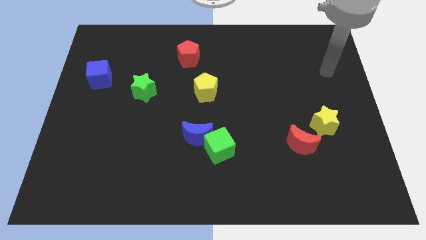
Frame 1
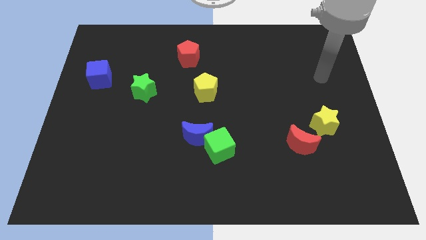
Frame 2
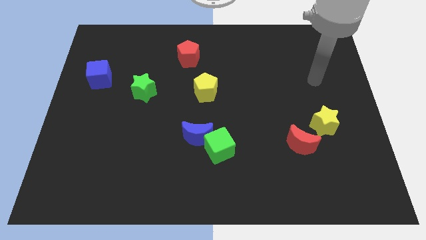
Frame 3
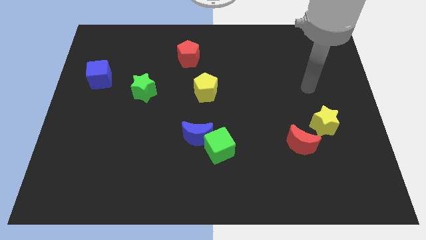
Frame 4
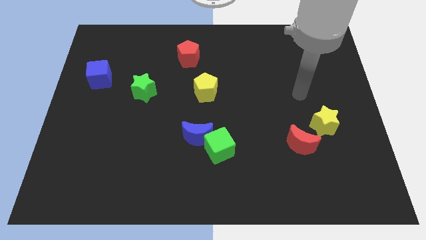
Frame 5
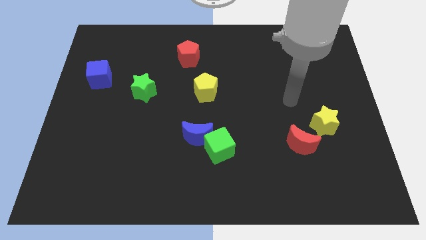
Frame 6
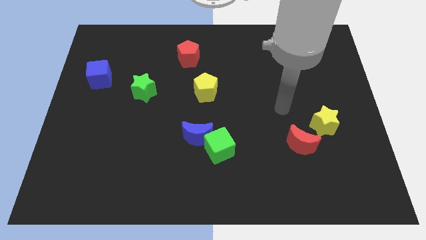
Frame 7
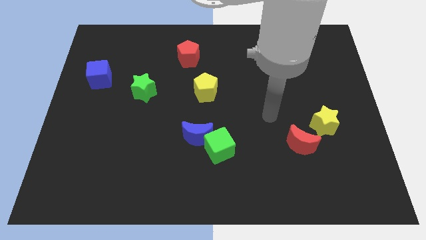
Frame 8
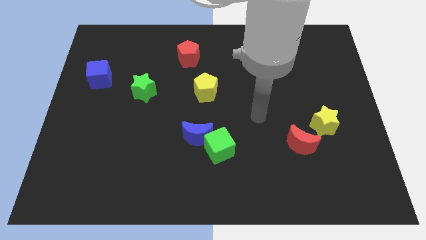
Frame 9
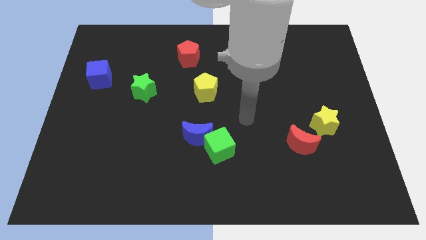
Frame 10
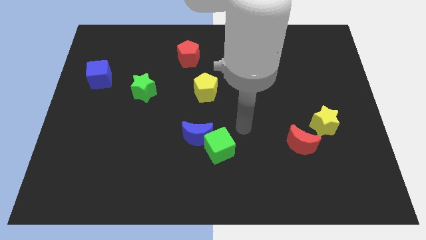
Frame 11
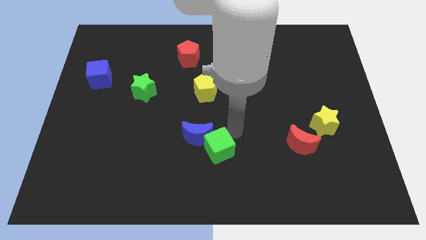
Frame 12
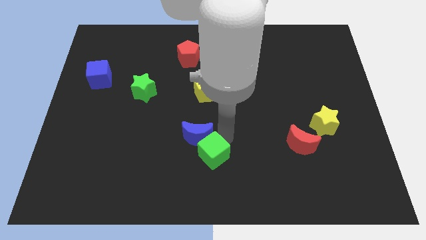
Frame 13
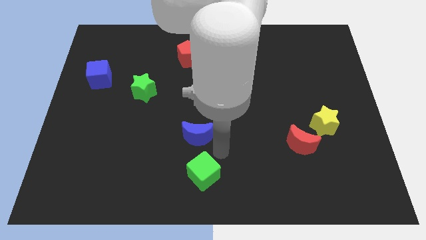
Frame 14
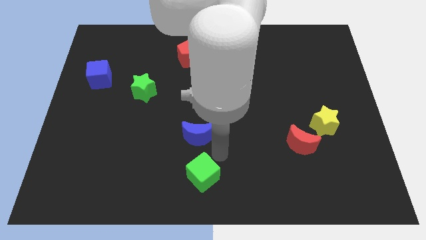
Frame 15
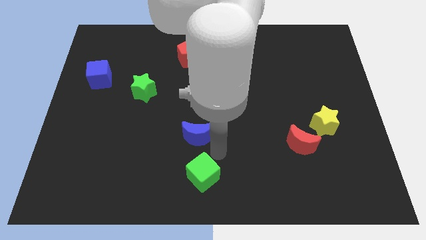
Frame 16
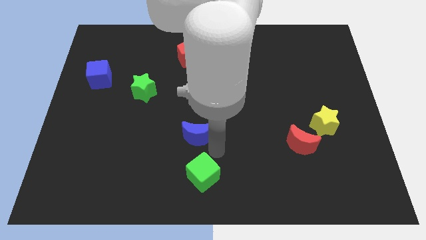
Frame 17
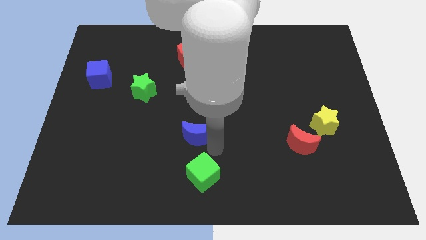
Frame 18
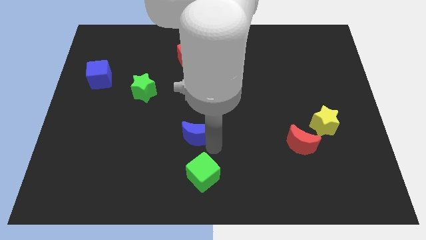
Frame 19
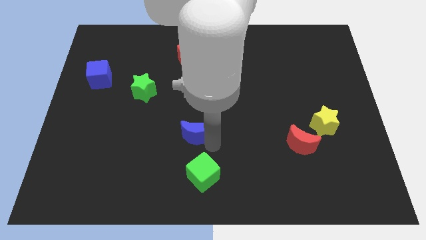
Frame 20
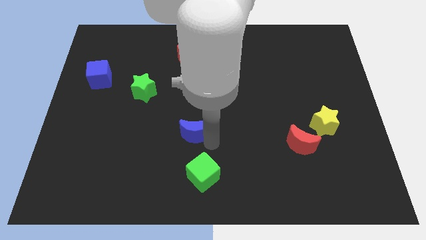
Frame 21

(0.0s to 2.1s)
move the blue moon away from the green cube

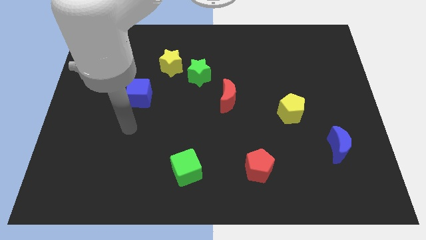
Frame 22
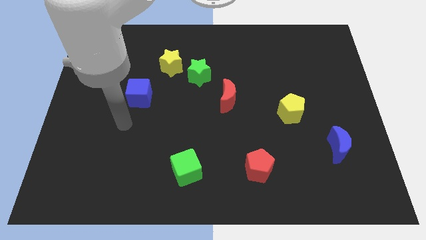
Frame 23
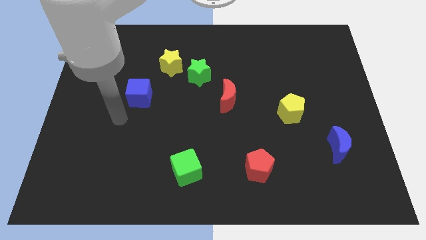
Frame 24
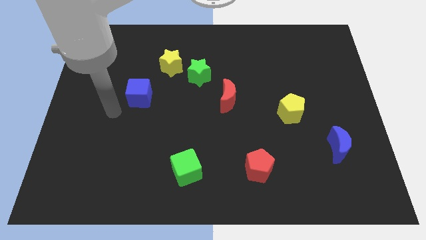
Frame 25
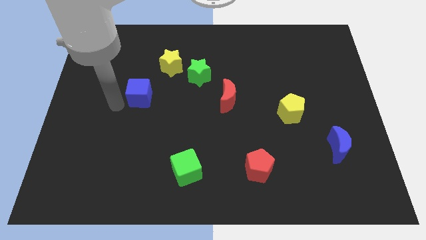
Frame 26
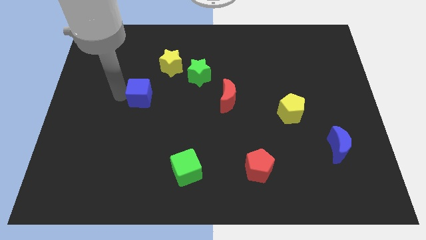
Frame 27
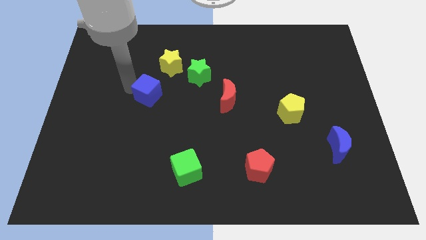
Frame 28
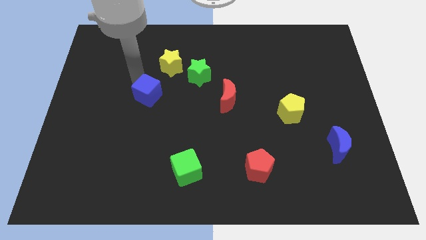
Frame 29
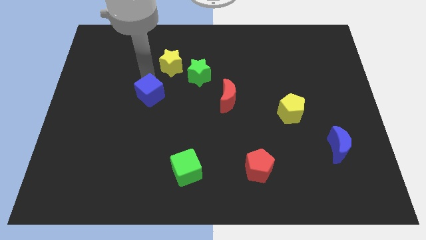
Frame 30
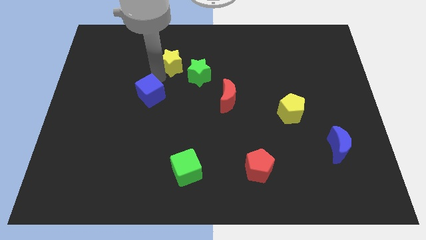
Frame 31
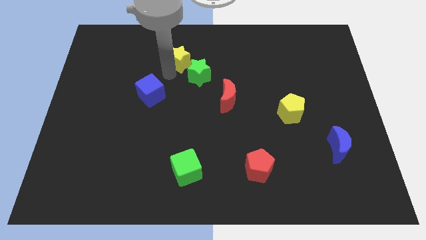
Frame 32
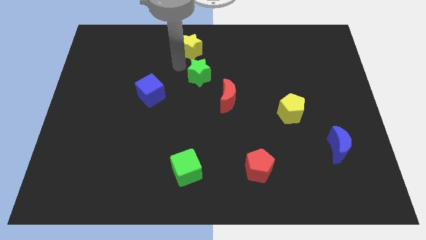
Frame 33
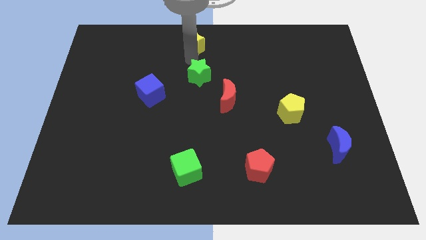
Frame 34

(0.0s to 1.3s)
separate the green star from the yellow star

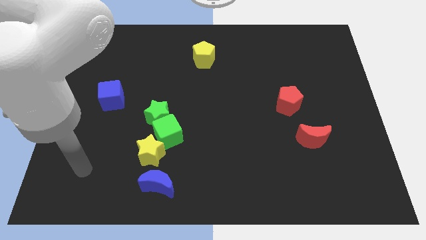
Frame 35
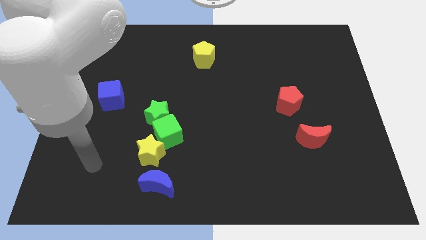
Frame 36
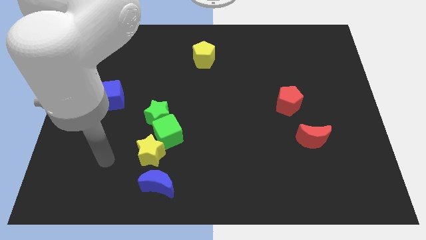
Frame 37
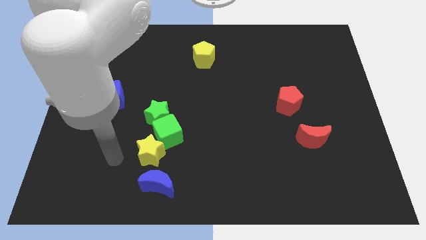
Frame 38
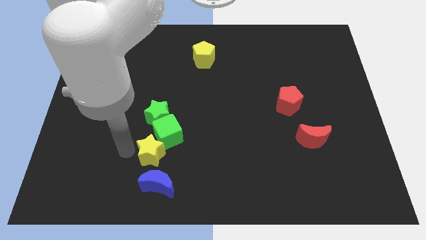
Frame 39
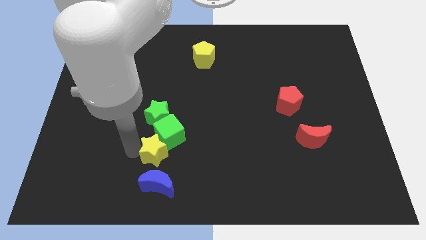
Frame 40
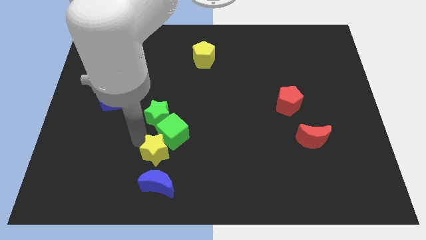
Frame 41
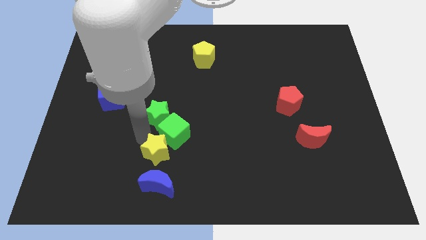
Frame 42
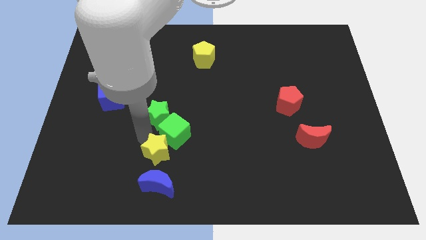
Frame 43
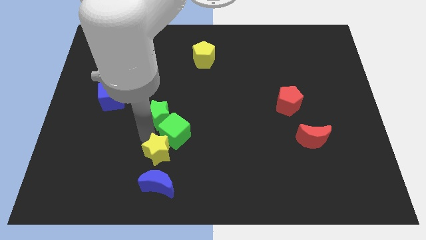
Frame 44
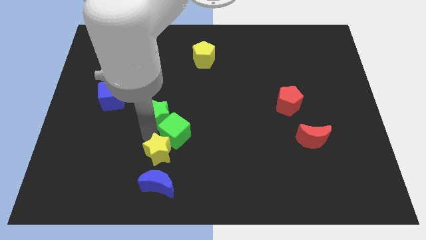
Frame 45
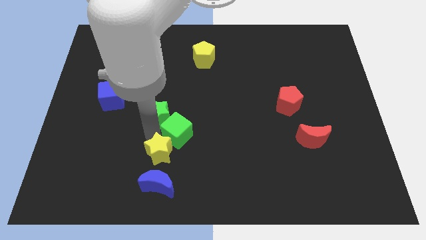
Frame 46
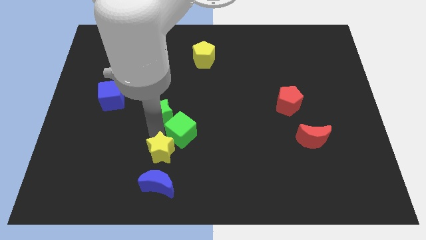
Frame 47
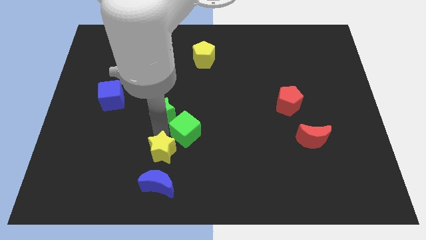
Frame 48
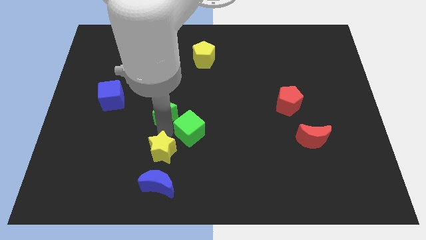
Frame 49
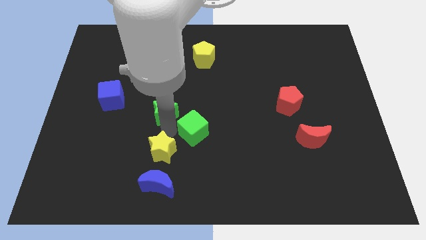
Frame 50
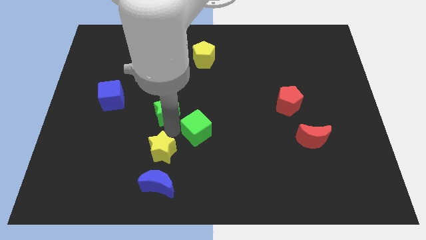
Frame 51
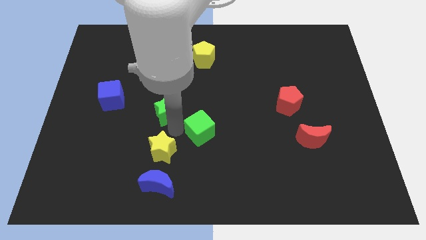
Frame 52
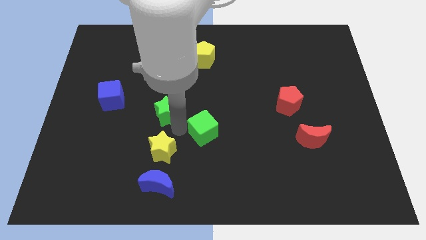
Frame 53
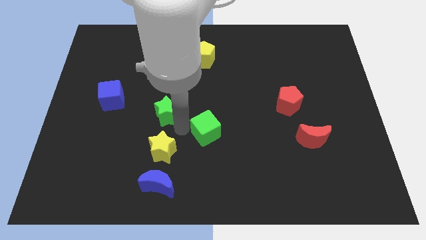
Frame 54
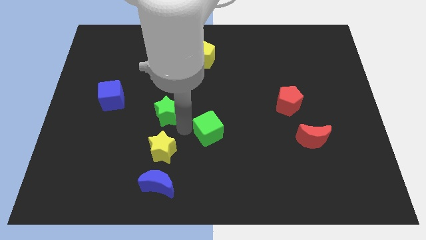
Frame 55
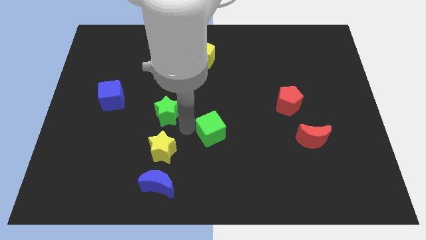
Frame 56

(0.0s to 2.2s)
pull the green cube apart from the green star and yellow star

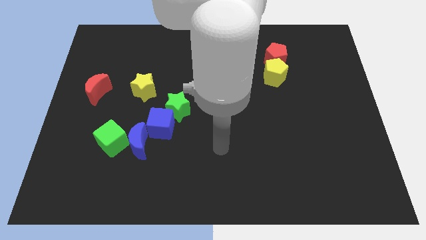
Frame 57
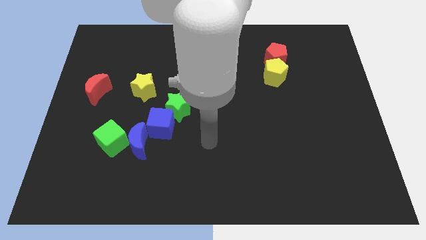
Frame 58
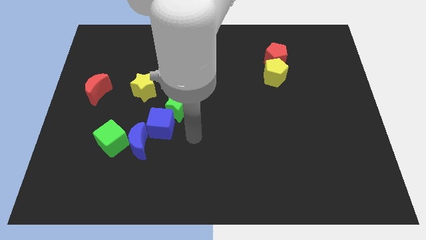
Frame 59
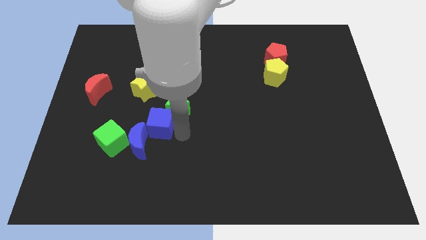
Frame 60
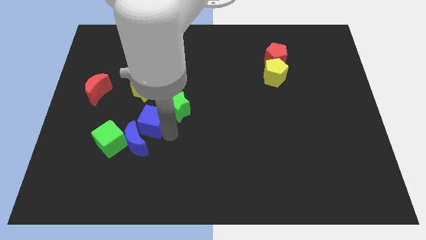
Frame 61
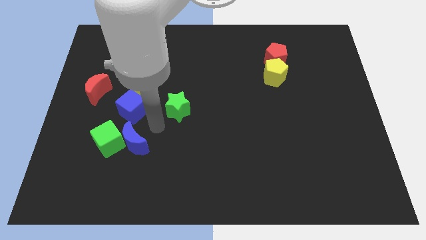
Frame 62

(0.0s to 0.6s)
move the green star away from the blue cube

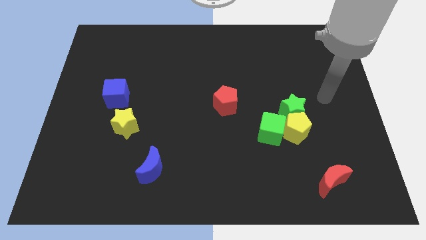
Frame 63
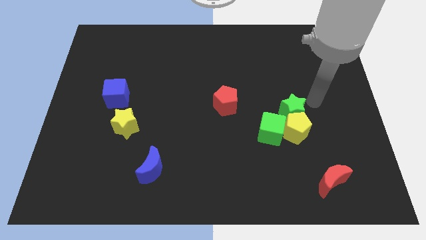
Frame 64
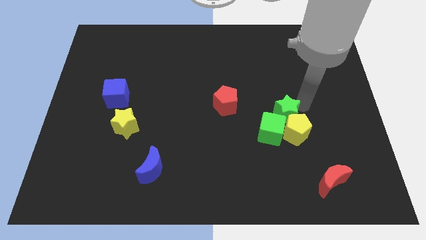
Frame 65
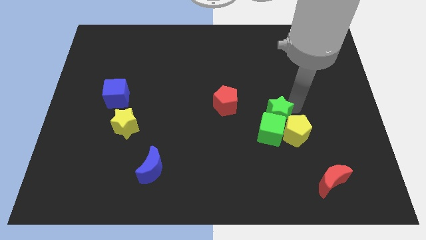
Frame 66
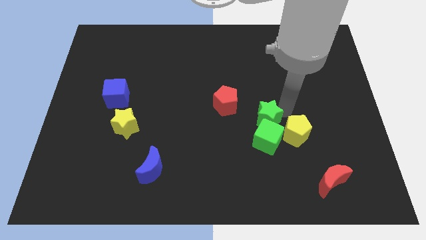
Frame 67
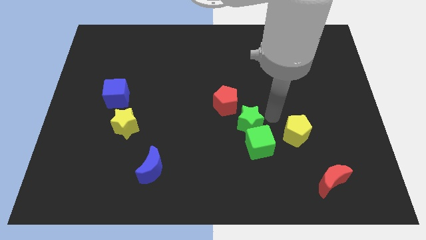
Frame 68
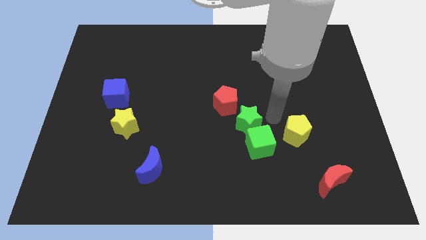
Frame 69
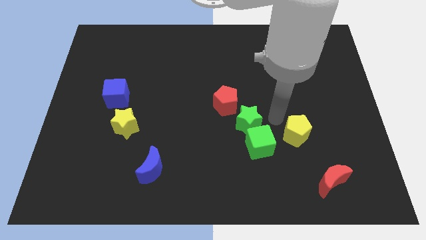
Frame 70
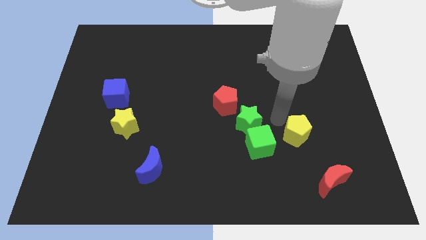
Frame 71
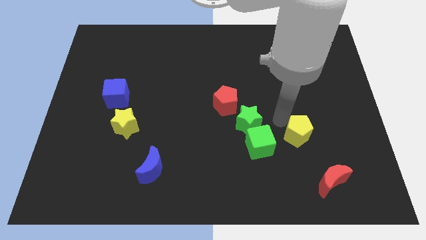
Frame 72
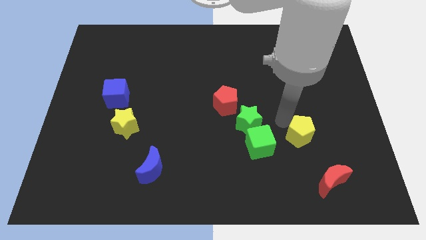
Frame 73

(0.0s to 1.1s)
separate the yellow pentagon from the green star and green cube

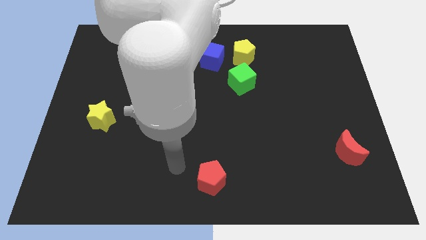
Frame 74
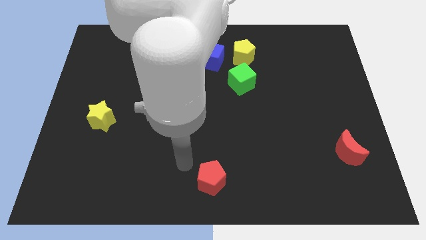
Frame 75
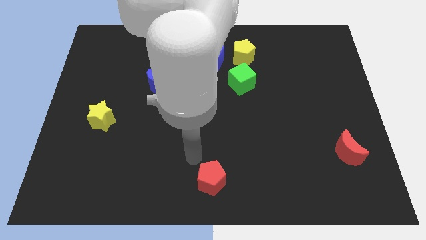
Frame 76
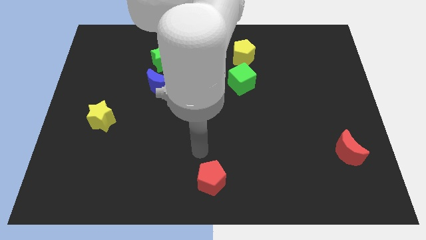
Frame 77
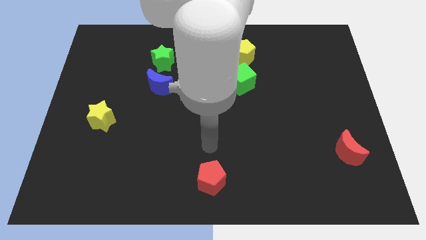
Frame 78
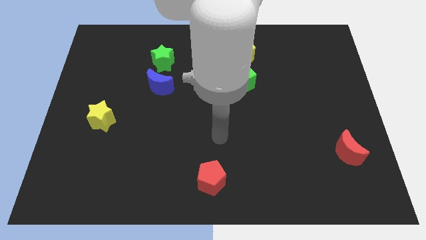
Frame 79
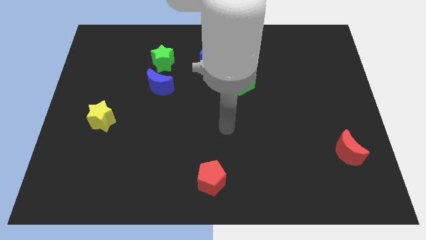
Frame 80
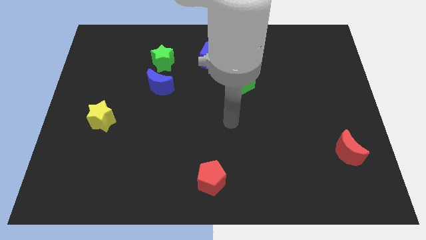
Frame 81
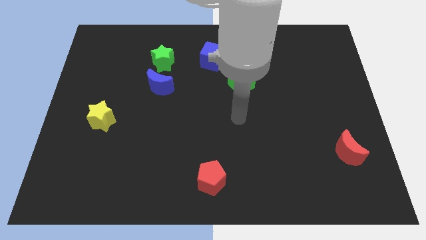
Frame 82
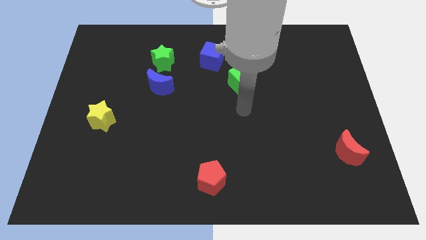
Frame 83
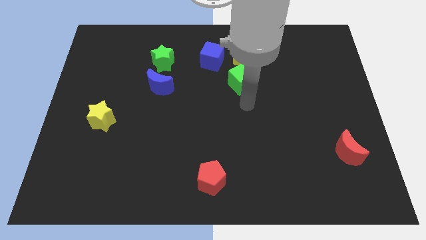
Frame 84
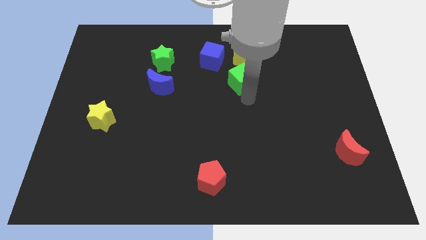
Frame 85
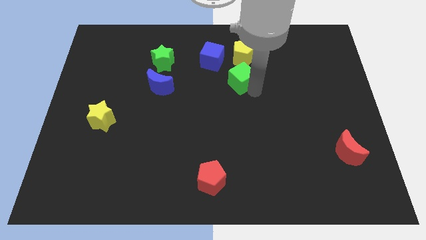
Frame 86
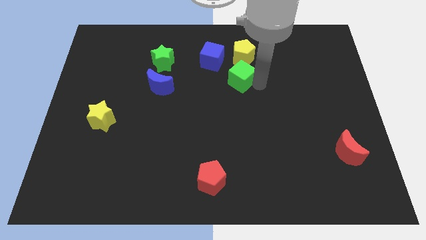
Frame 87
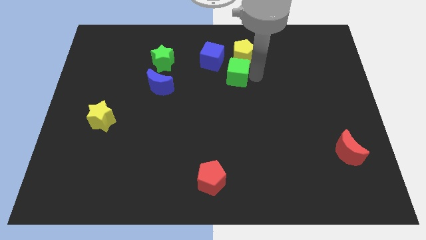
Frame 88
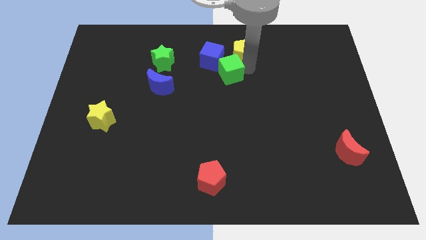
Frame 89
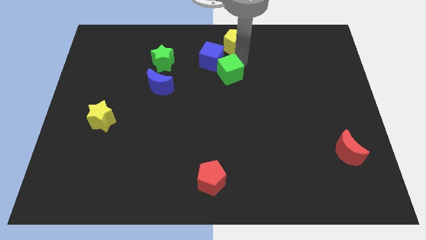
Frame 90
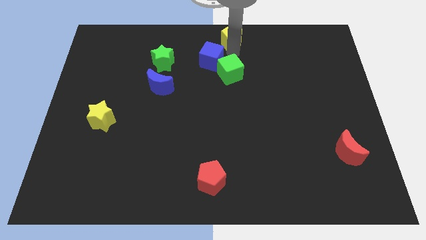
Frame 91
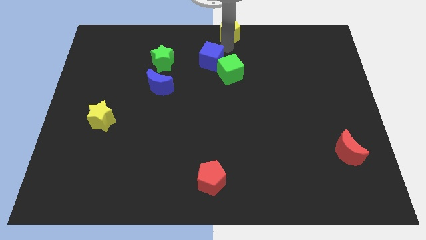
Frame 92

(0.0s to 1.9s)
move the blue cube away from the yellow pentagon
